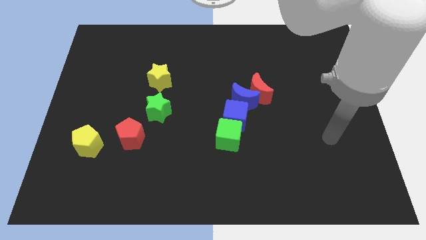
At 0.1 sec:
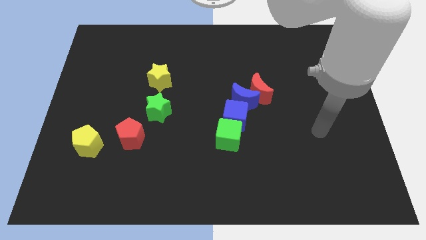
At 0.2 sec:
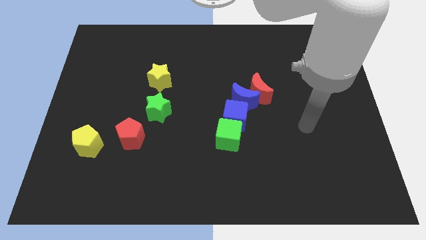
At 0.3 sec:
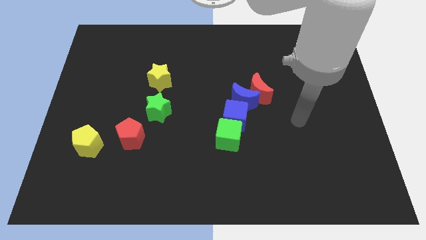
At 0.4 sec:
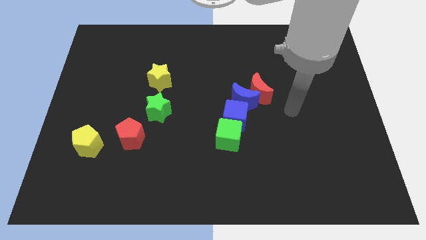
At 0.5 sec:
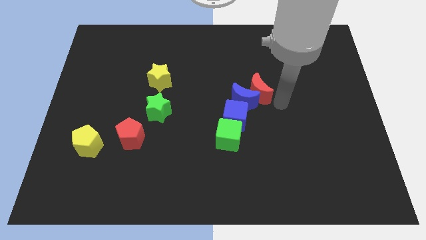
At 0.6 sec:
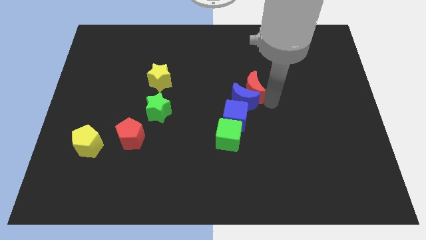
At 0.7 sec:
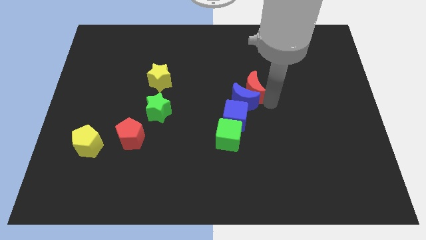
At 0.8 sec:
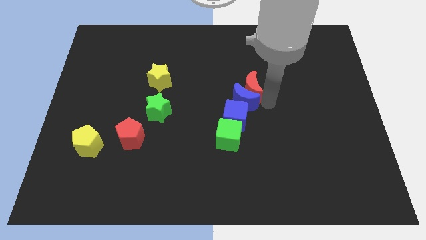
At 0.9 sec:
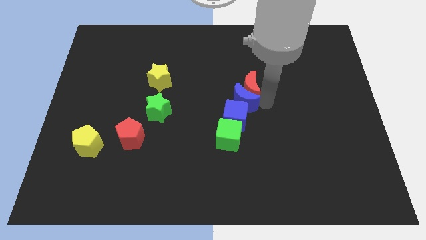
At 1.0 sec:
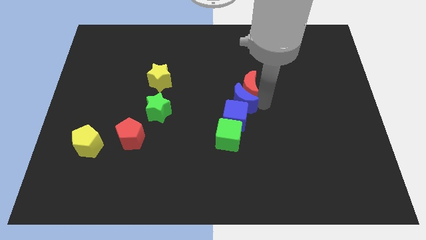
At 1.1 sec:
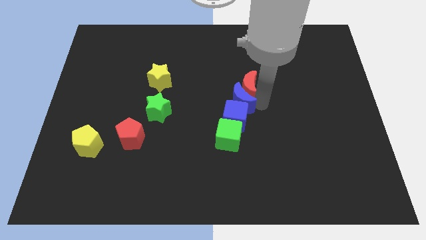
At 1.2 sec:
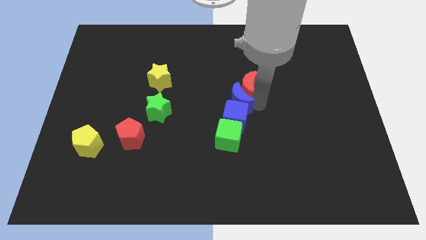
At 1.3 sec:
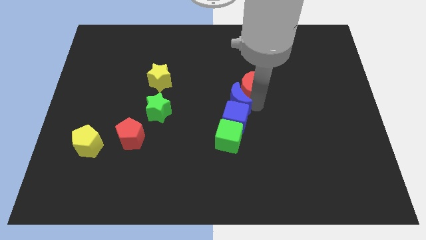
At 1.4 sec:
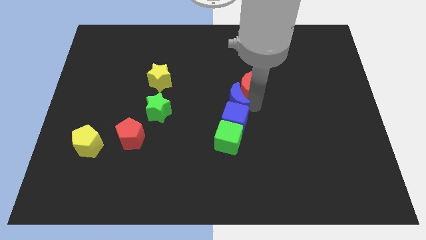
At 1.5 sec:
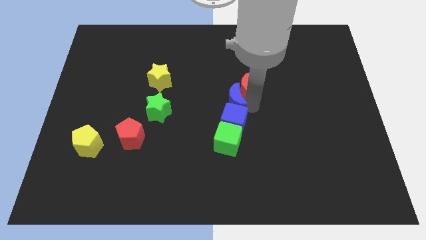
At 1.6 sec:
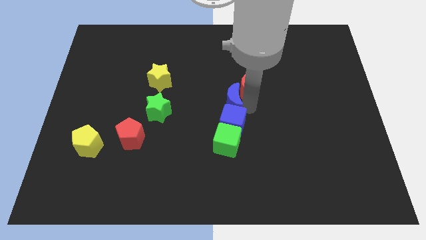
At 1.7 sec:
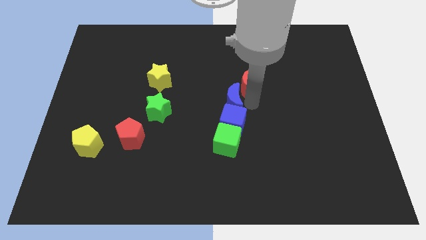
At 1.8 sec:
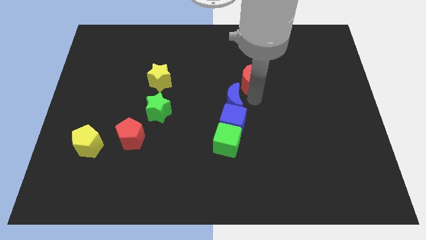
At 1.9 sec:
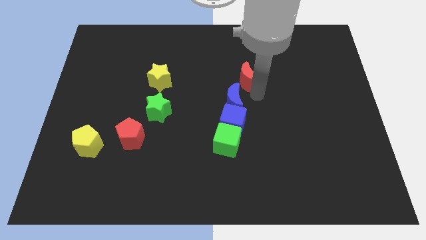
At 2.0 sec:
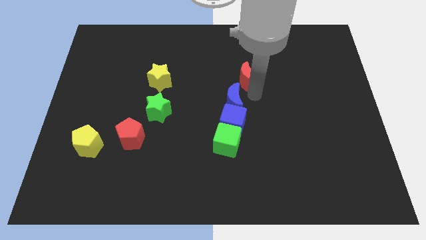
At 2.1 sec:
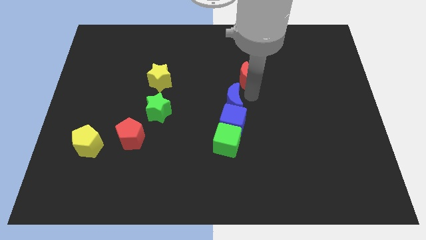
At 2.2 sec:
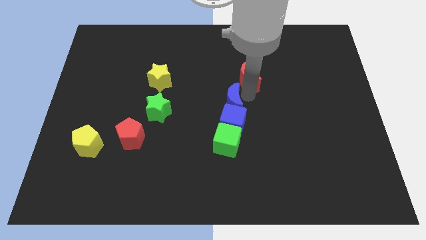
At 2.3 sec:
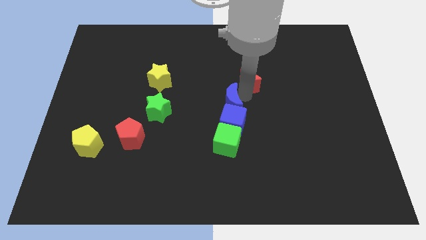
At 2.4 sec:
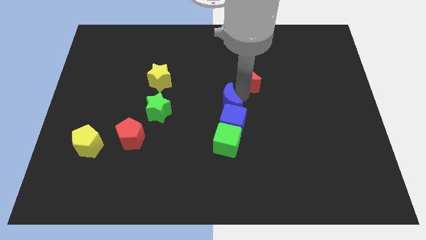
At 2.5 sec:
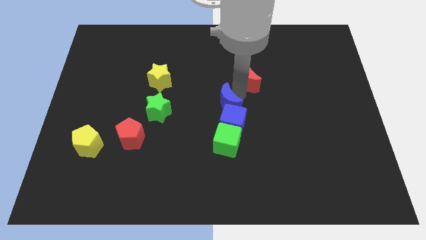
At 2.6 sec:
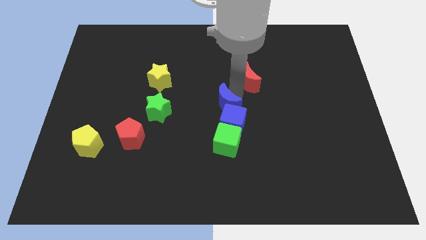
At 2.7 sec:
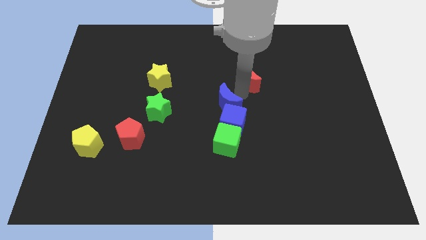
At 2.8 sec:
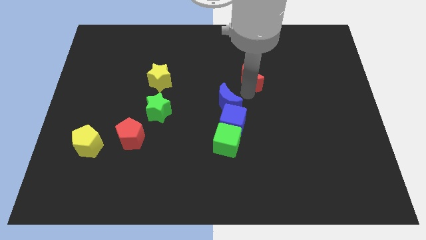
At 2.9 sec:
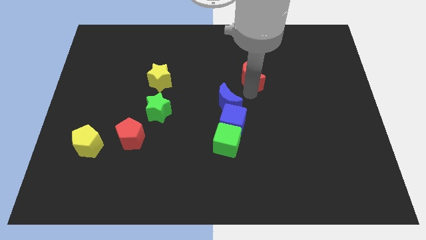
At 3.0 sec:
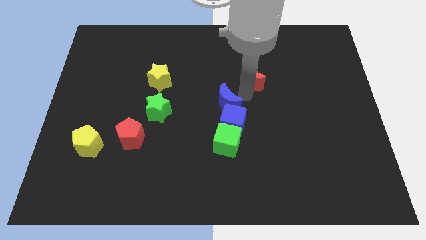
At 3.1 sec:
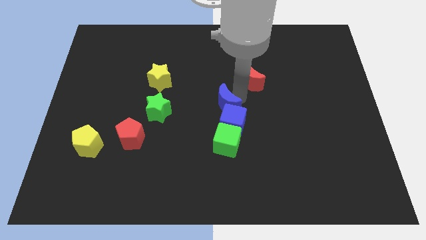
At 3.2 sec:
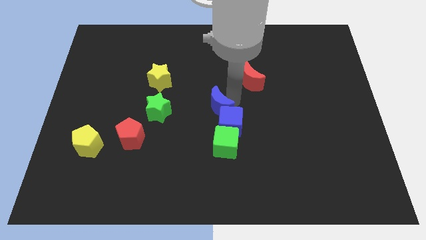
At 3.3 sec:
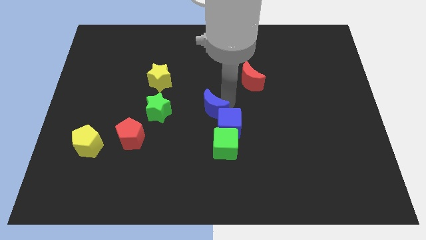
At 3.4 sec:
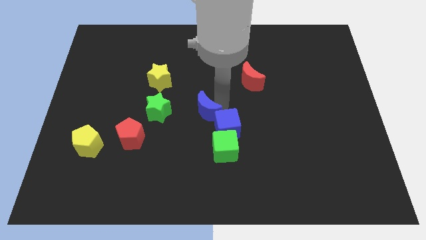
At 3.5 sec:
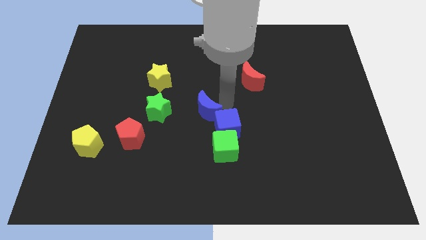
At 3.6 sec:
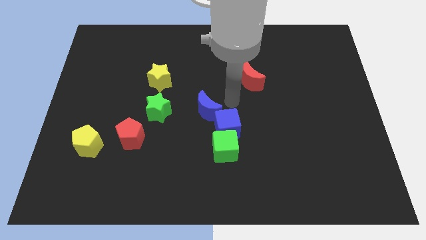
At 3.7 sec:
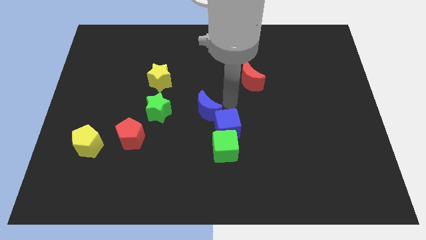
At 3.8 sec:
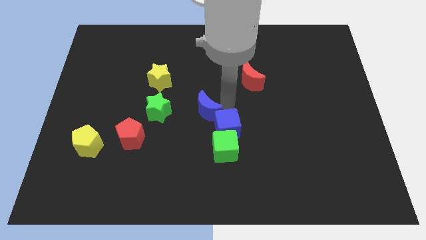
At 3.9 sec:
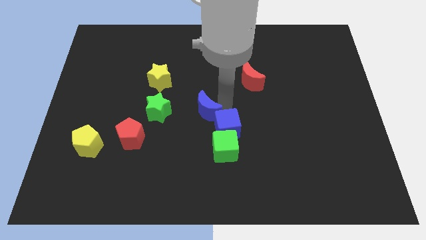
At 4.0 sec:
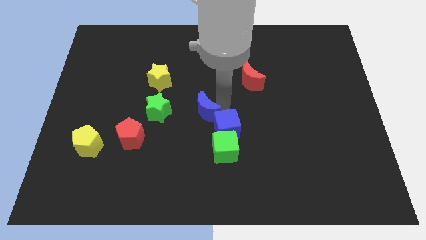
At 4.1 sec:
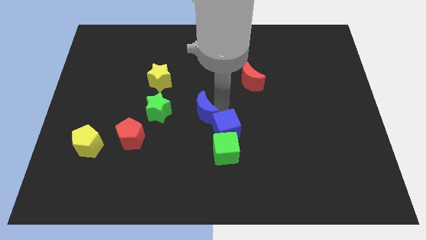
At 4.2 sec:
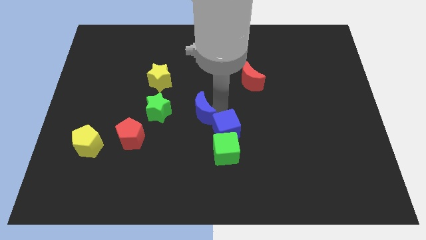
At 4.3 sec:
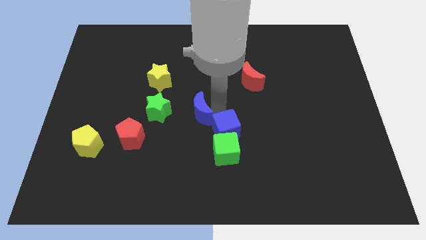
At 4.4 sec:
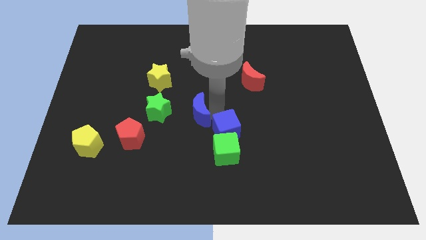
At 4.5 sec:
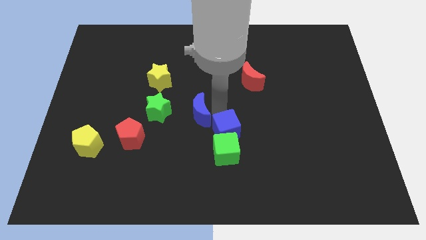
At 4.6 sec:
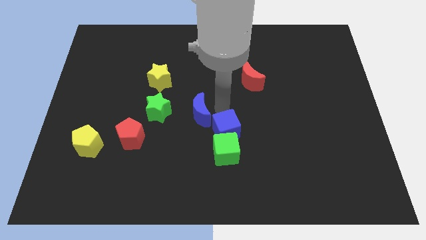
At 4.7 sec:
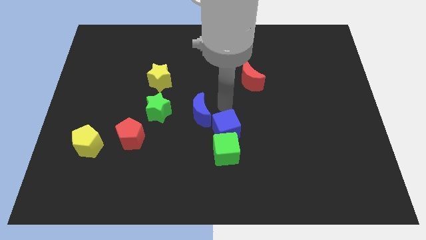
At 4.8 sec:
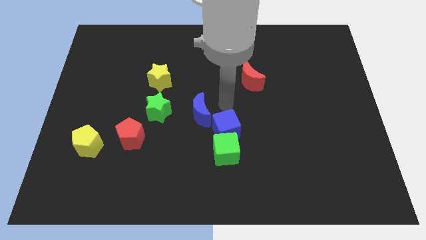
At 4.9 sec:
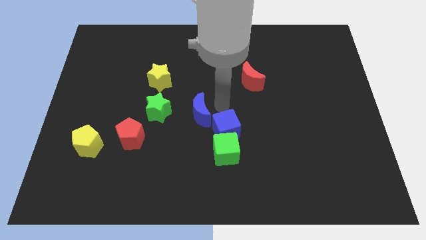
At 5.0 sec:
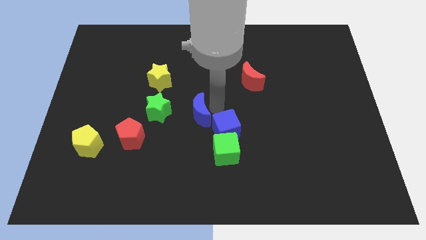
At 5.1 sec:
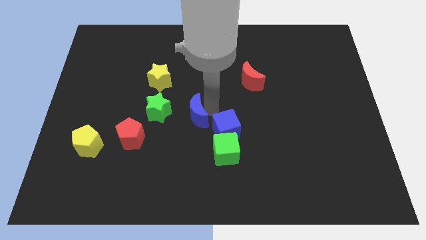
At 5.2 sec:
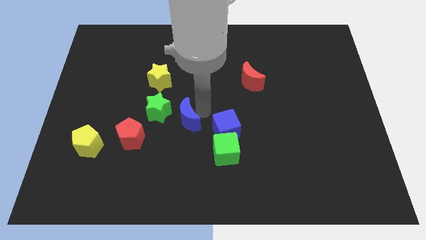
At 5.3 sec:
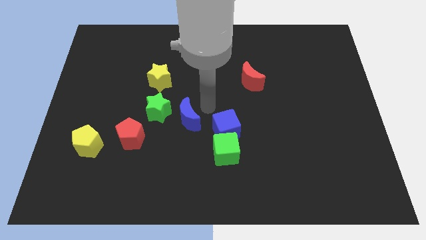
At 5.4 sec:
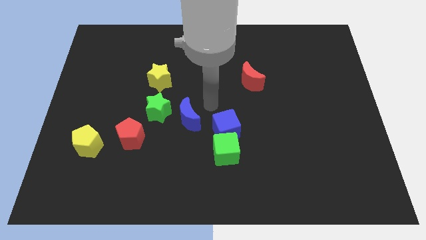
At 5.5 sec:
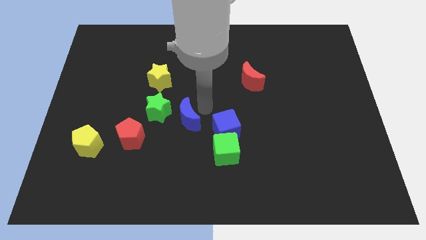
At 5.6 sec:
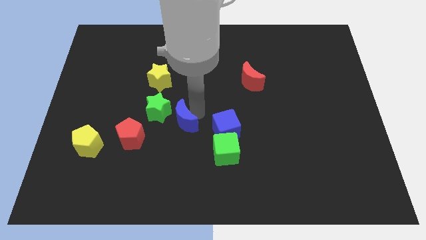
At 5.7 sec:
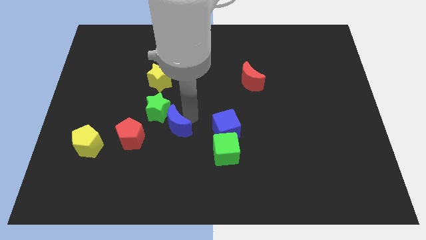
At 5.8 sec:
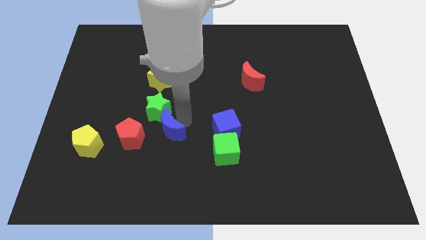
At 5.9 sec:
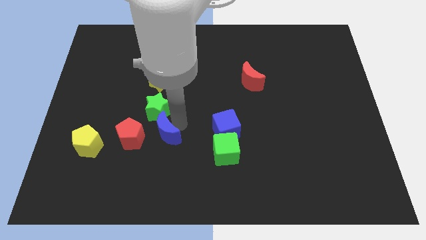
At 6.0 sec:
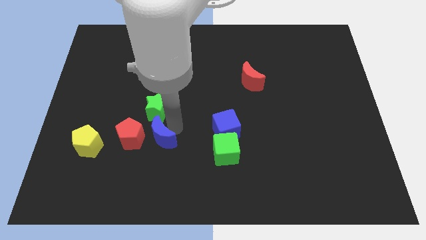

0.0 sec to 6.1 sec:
slide the blue moon to the right side of the yellow pentagon

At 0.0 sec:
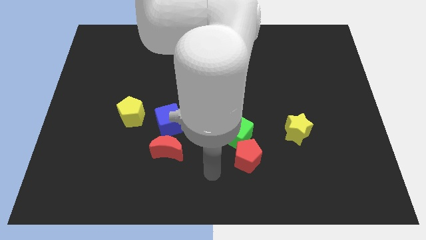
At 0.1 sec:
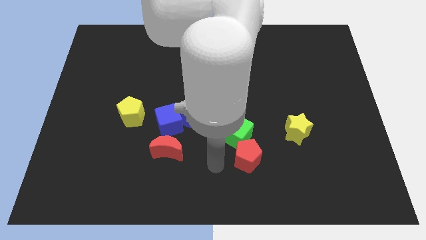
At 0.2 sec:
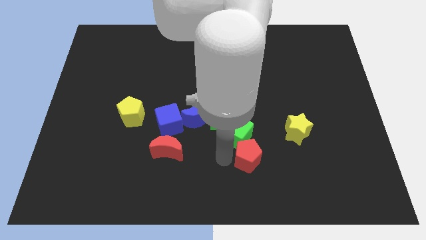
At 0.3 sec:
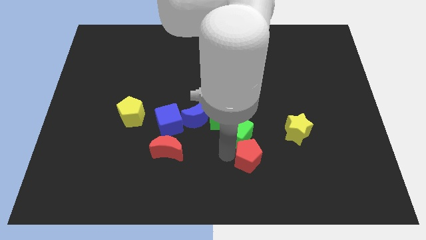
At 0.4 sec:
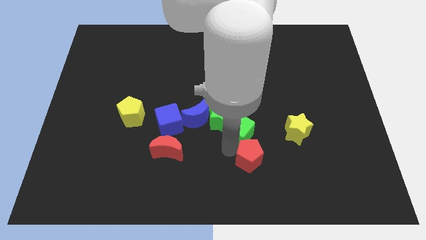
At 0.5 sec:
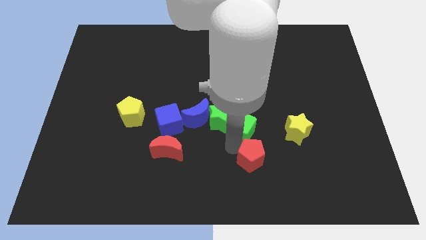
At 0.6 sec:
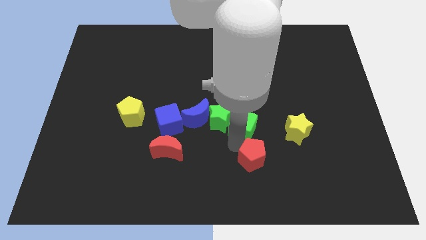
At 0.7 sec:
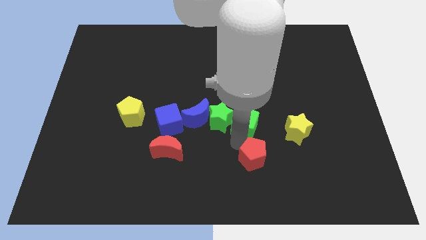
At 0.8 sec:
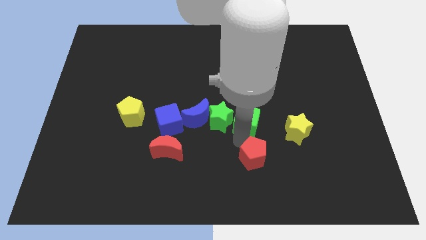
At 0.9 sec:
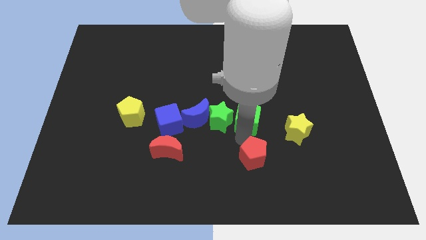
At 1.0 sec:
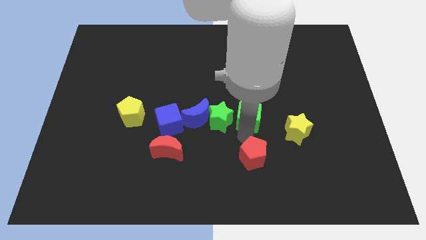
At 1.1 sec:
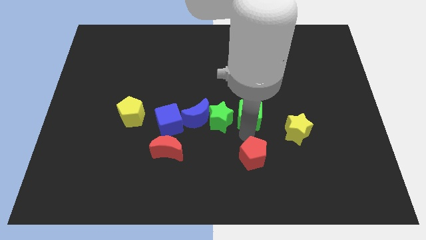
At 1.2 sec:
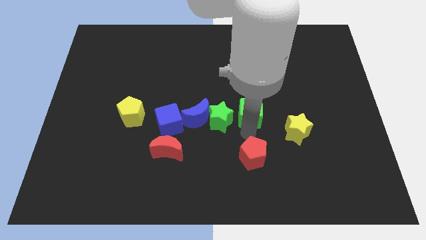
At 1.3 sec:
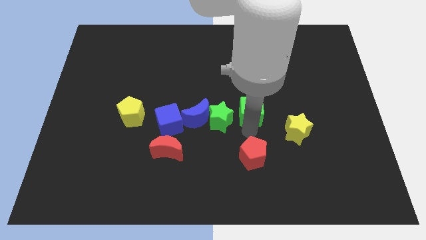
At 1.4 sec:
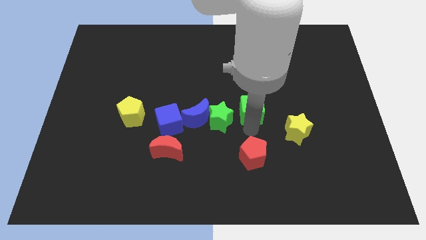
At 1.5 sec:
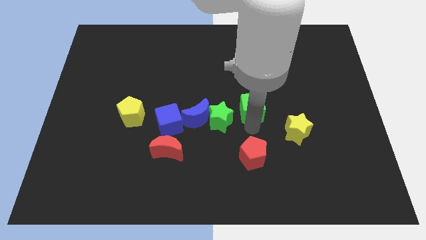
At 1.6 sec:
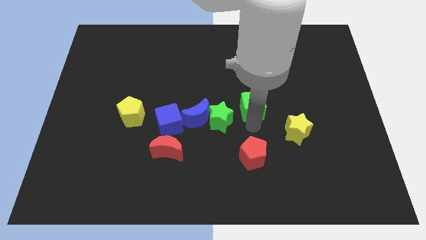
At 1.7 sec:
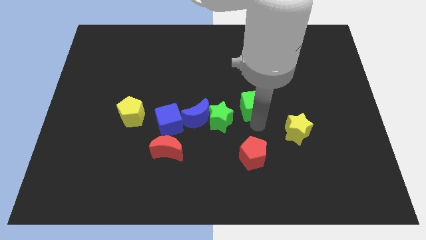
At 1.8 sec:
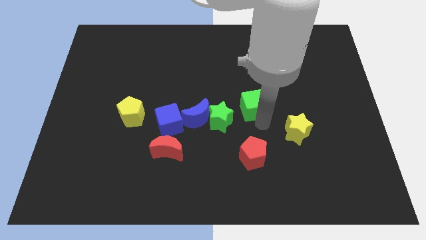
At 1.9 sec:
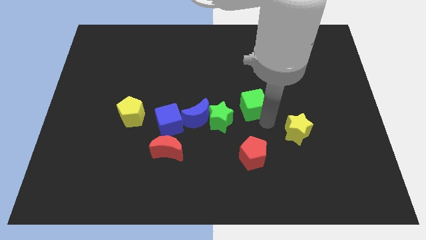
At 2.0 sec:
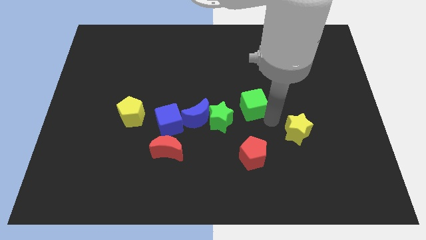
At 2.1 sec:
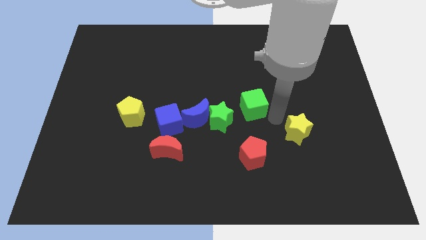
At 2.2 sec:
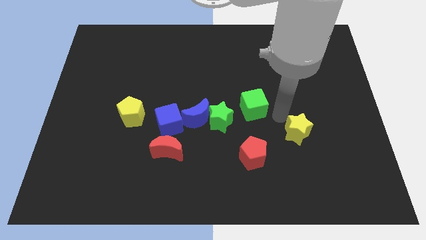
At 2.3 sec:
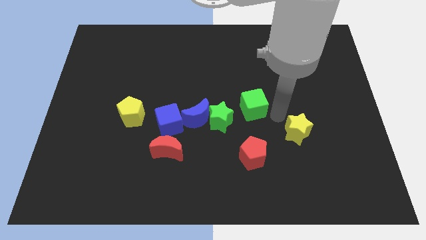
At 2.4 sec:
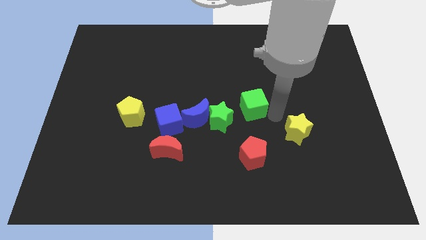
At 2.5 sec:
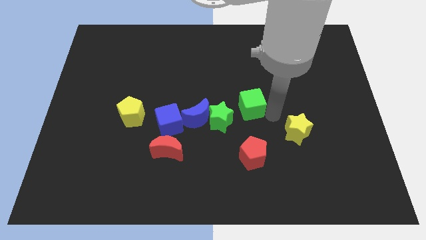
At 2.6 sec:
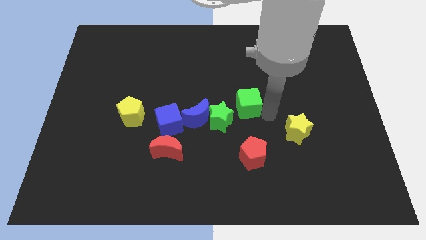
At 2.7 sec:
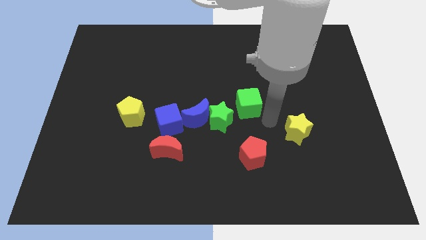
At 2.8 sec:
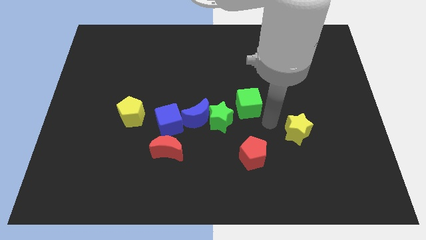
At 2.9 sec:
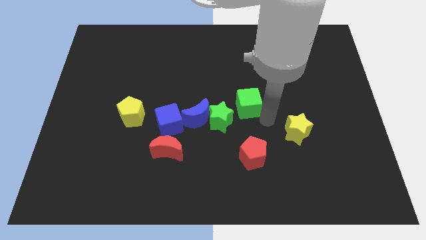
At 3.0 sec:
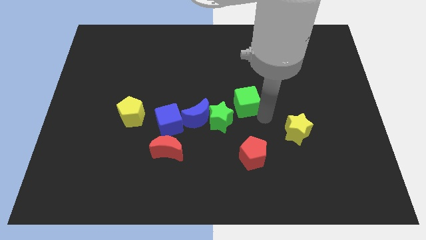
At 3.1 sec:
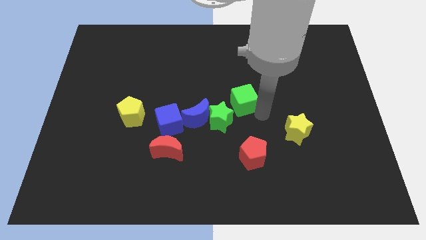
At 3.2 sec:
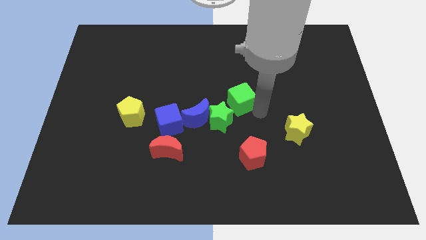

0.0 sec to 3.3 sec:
put the green cube above the green star
